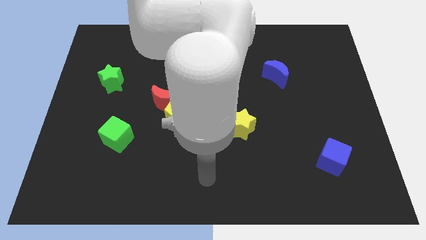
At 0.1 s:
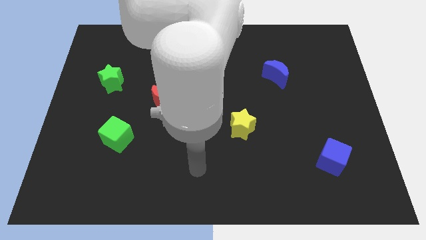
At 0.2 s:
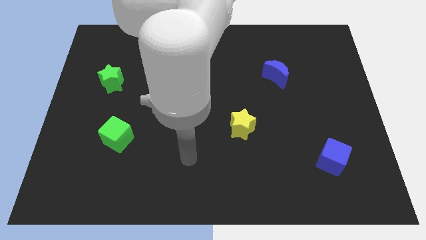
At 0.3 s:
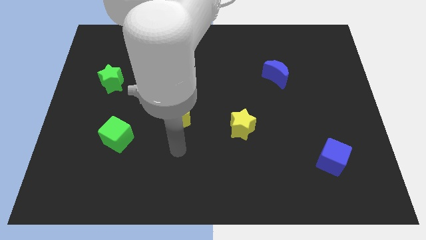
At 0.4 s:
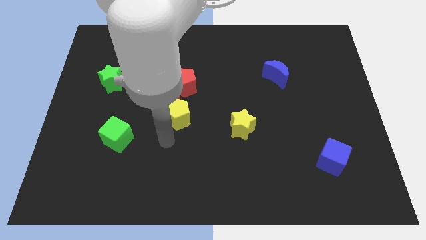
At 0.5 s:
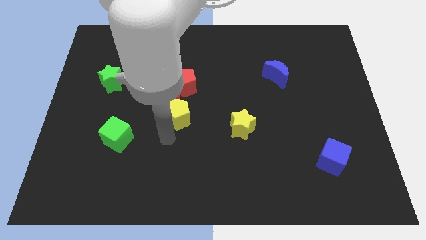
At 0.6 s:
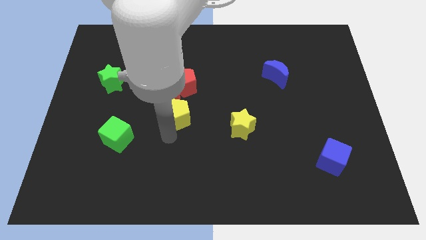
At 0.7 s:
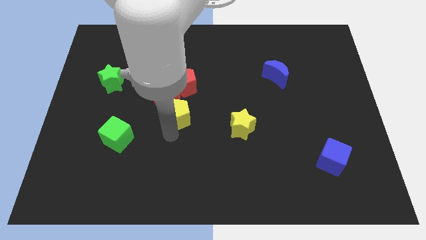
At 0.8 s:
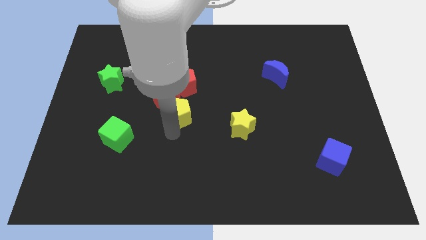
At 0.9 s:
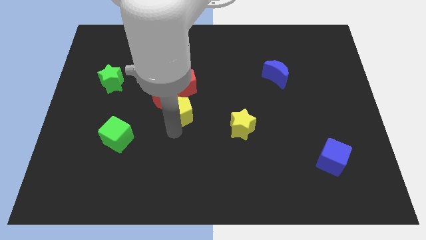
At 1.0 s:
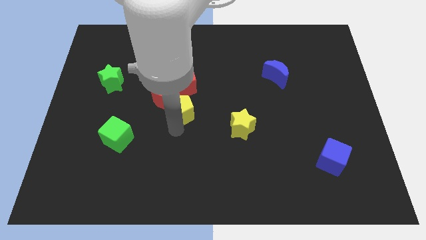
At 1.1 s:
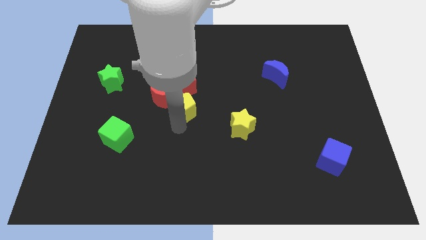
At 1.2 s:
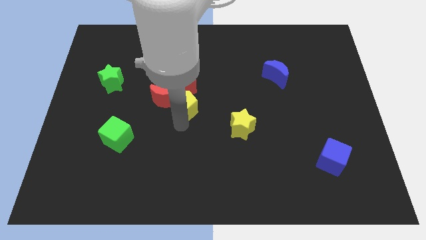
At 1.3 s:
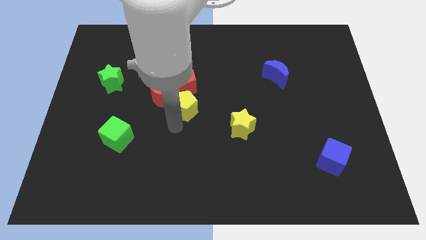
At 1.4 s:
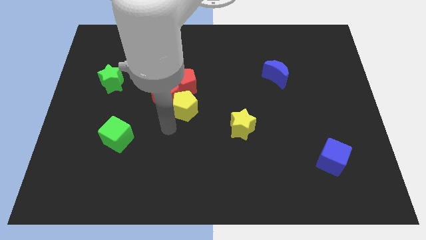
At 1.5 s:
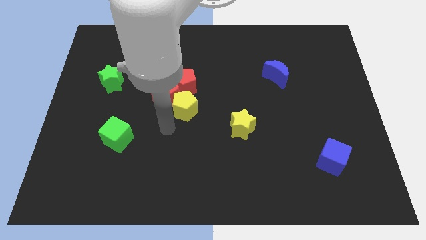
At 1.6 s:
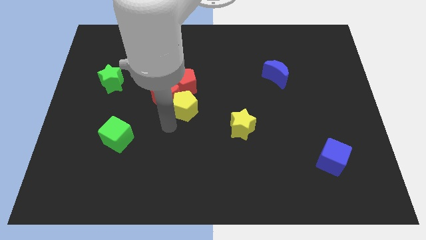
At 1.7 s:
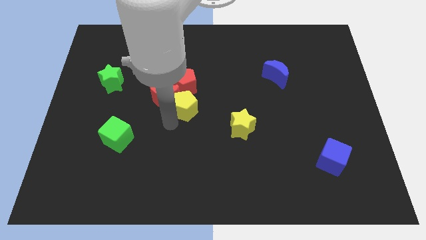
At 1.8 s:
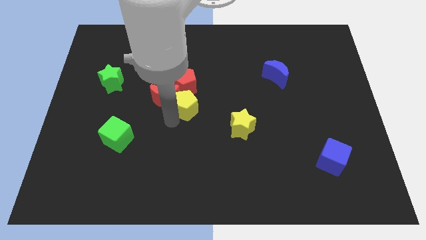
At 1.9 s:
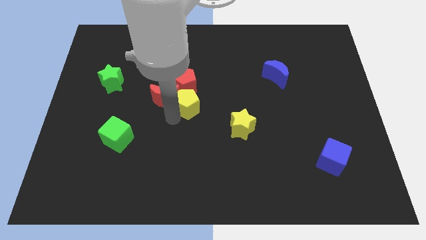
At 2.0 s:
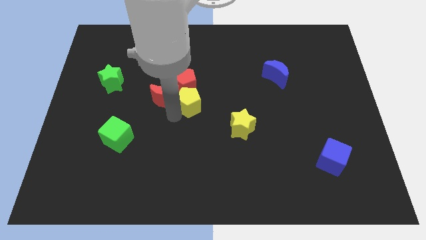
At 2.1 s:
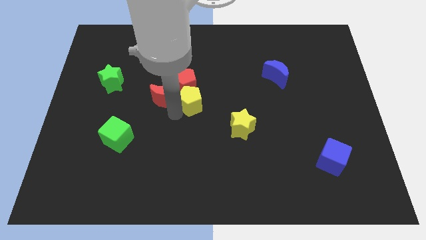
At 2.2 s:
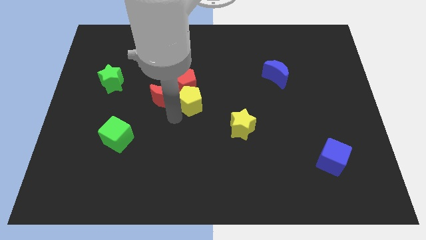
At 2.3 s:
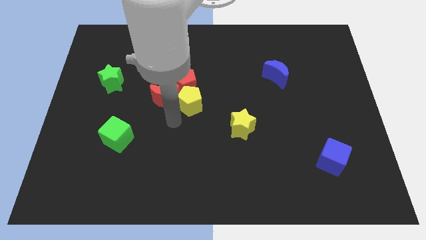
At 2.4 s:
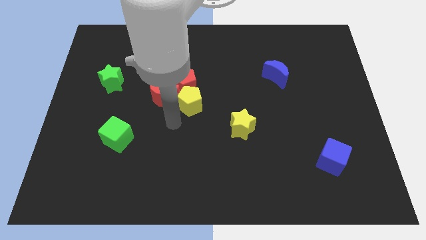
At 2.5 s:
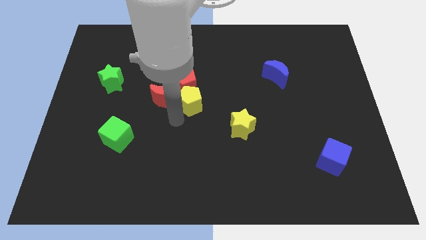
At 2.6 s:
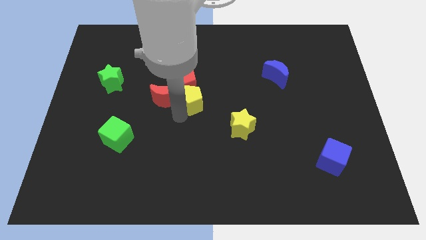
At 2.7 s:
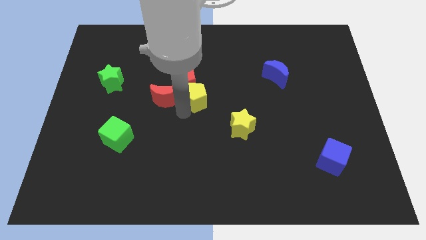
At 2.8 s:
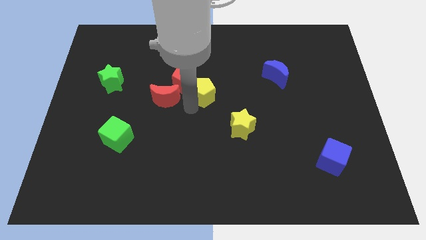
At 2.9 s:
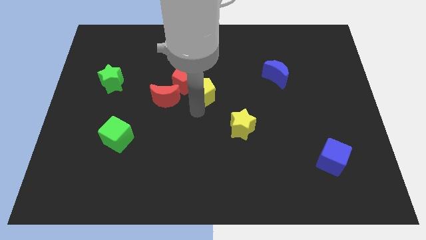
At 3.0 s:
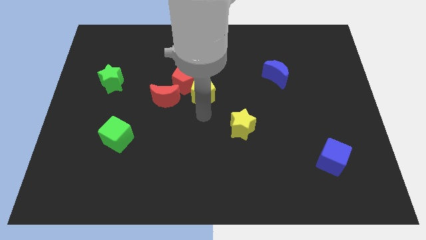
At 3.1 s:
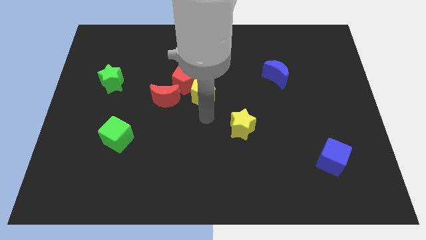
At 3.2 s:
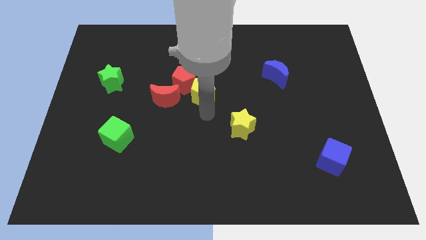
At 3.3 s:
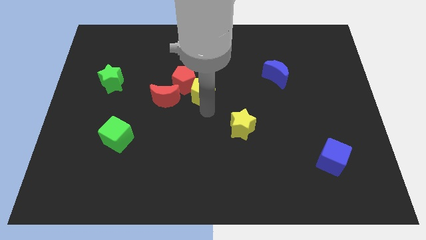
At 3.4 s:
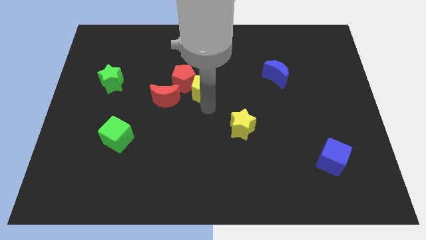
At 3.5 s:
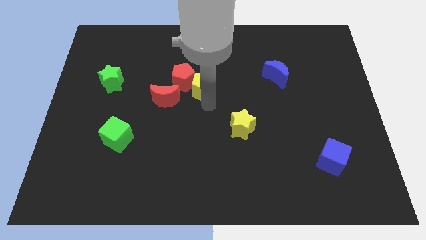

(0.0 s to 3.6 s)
move the yellow pentagon somewhat up

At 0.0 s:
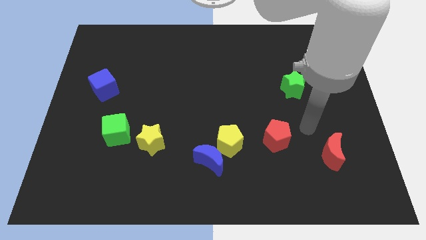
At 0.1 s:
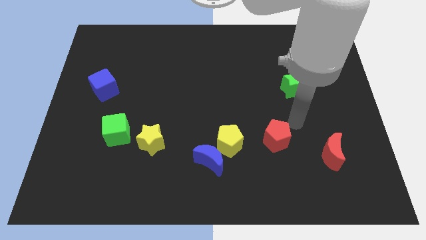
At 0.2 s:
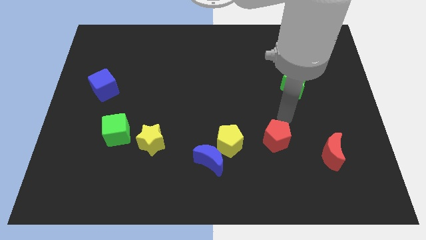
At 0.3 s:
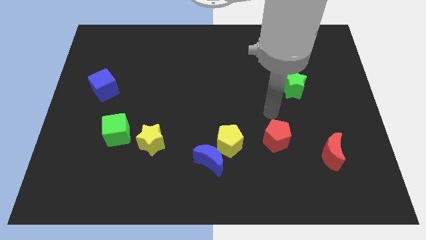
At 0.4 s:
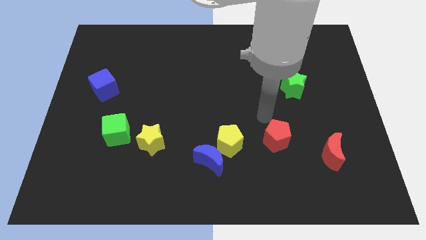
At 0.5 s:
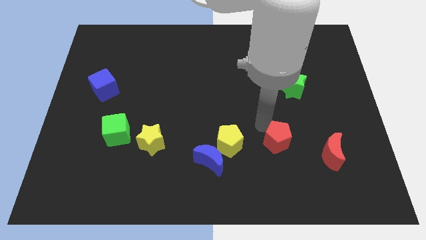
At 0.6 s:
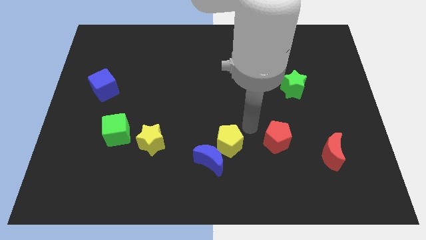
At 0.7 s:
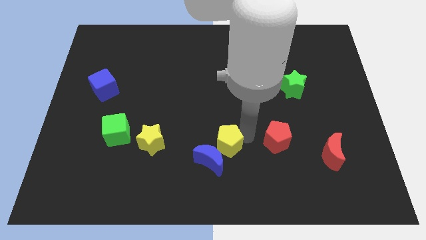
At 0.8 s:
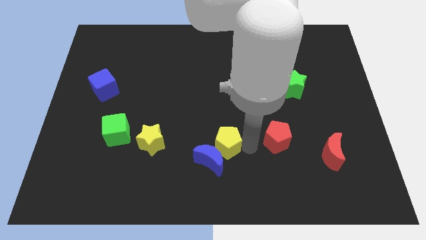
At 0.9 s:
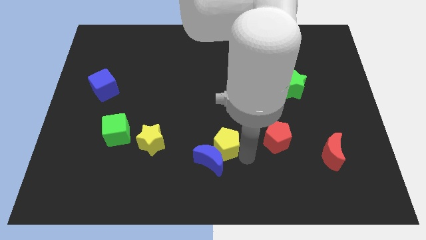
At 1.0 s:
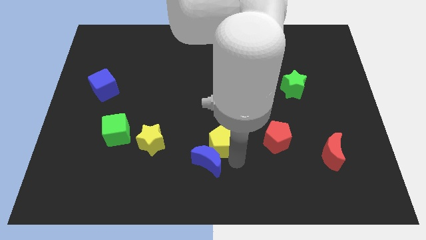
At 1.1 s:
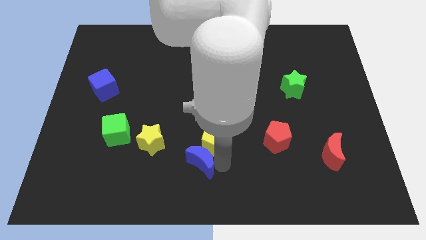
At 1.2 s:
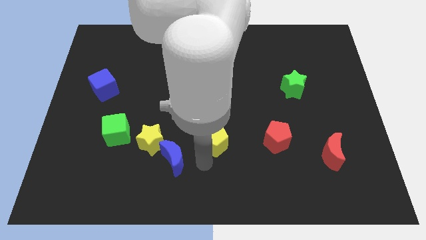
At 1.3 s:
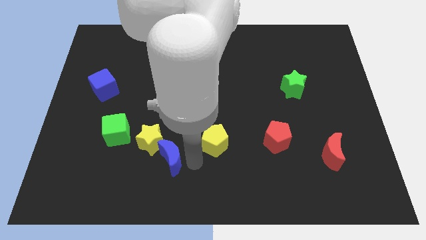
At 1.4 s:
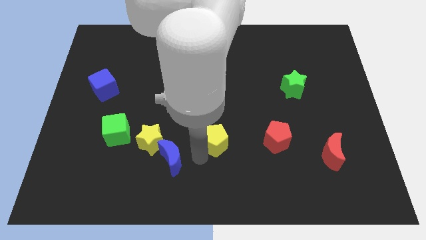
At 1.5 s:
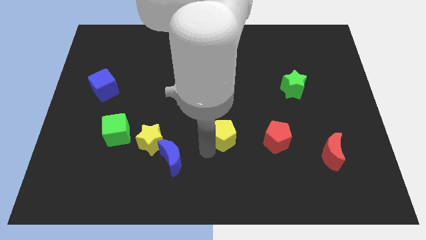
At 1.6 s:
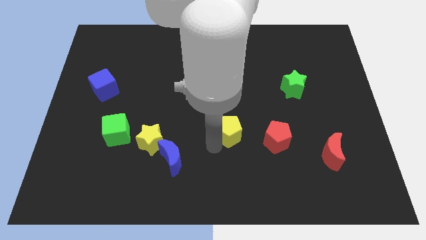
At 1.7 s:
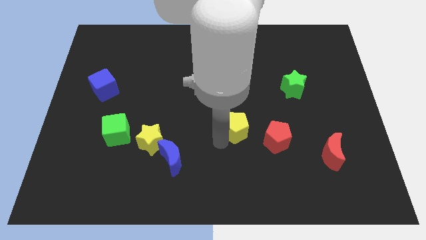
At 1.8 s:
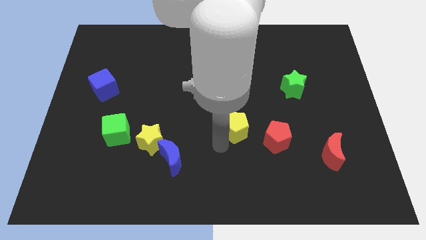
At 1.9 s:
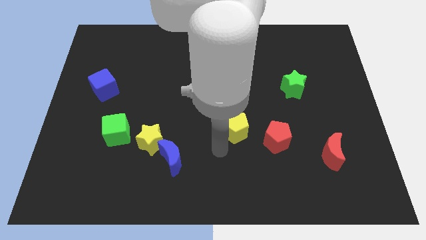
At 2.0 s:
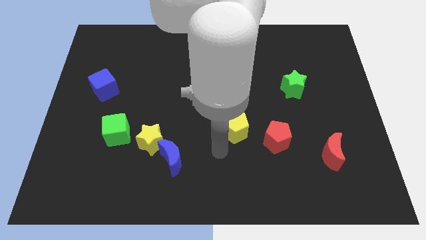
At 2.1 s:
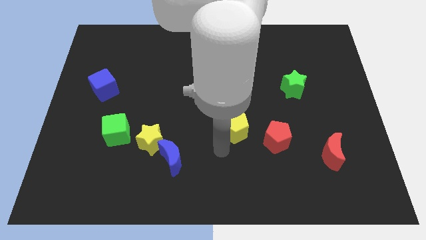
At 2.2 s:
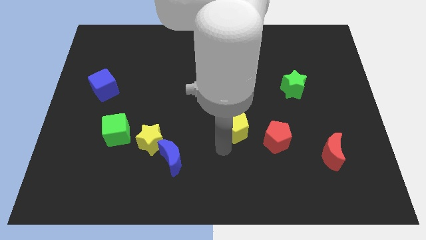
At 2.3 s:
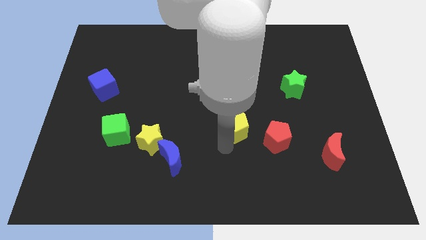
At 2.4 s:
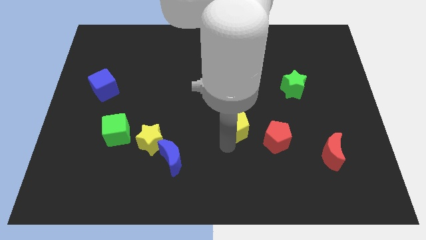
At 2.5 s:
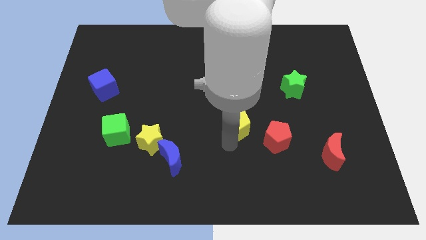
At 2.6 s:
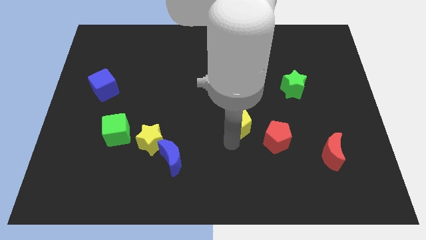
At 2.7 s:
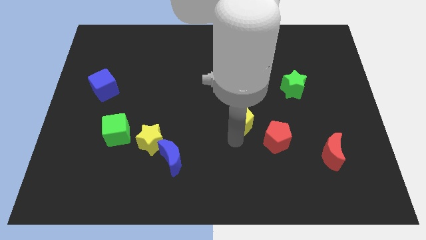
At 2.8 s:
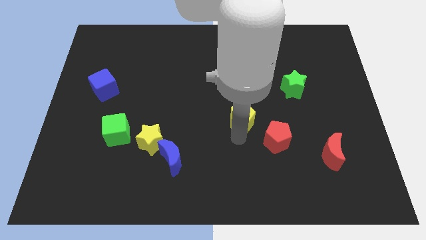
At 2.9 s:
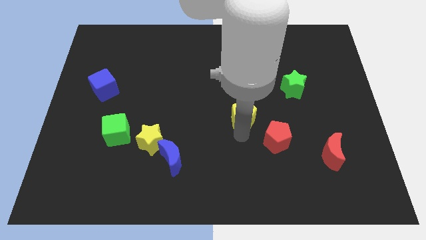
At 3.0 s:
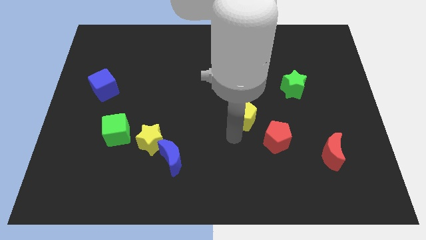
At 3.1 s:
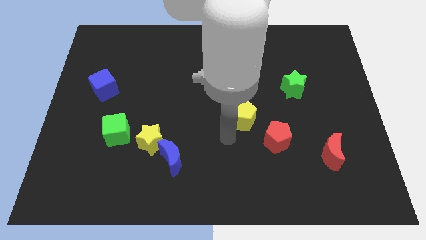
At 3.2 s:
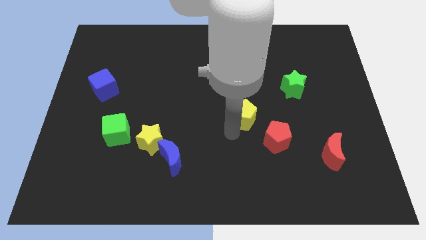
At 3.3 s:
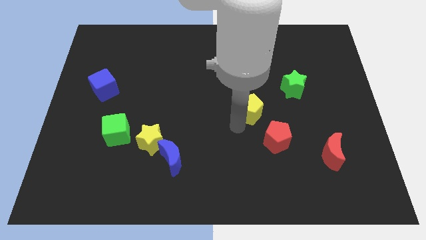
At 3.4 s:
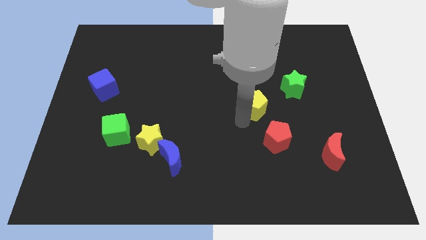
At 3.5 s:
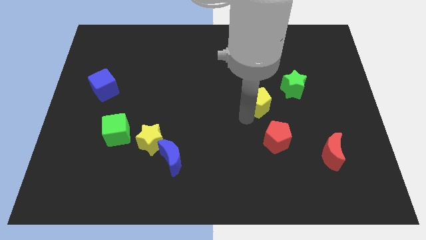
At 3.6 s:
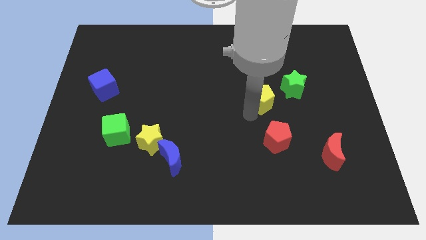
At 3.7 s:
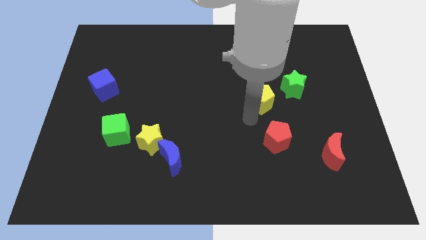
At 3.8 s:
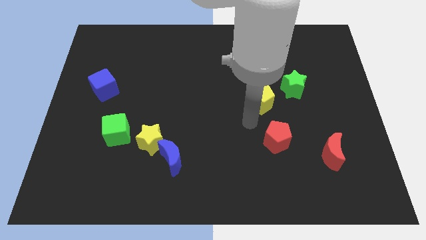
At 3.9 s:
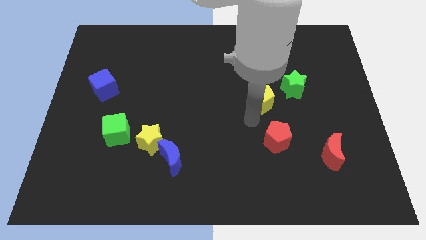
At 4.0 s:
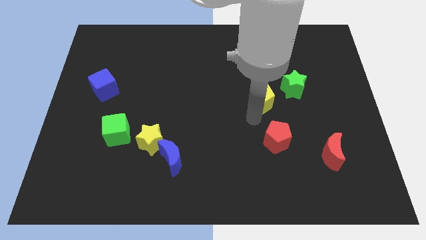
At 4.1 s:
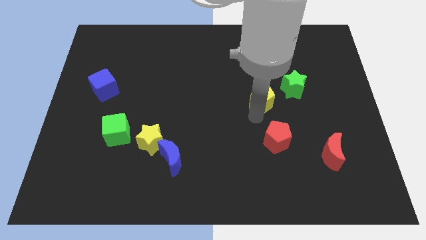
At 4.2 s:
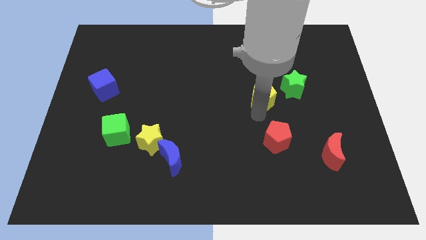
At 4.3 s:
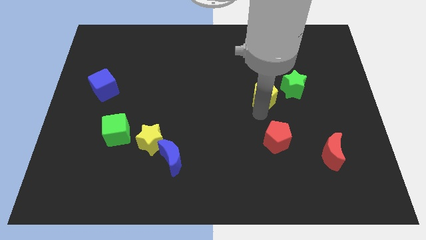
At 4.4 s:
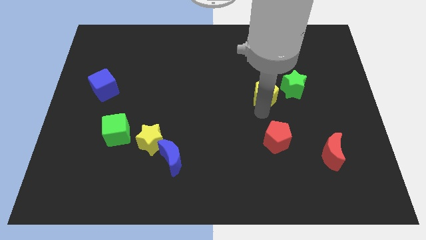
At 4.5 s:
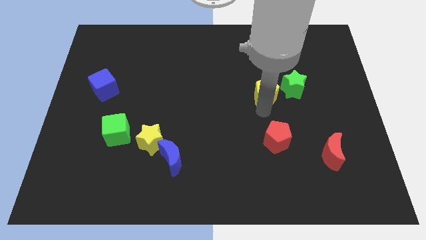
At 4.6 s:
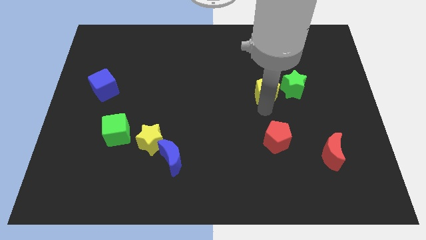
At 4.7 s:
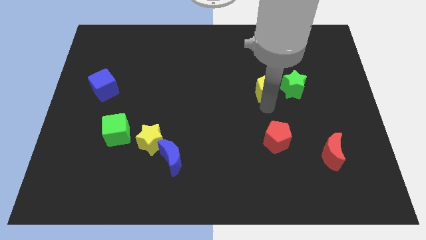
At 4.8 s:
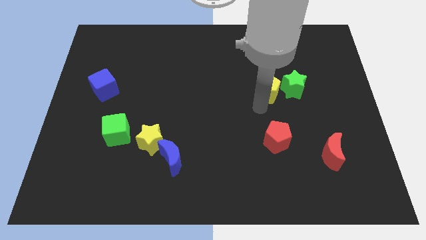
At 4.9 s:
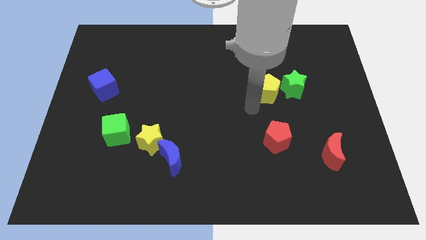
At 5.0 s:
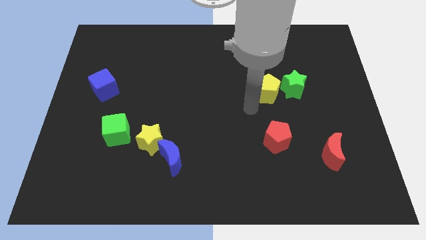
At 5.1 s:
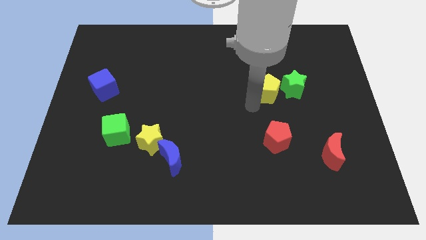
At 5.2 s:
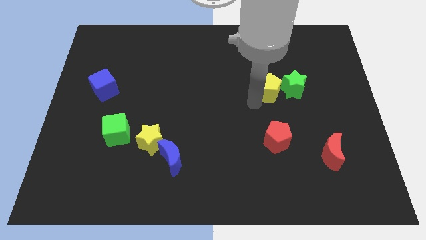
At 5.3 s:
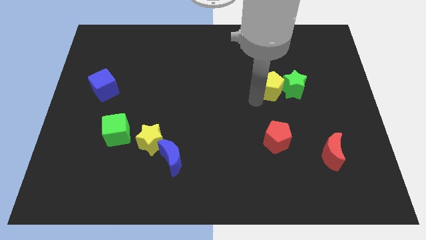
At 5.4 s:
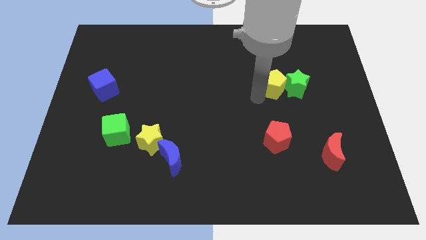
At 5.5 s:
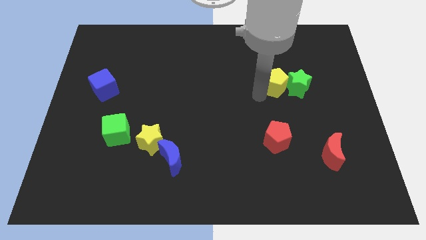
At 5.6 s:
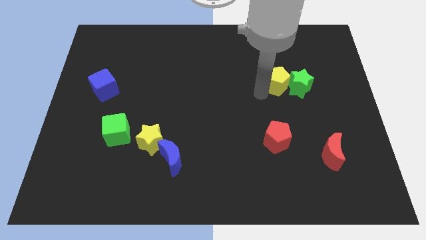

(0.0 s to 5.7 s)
move the yellow pentagon diagonally upwards and right
